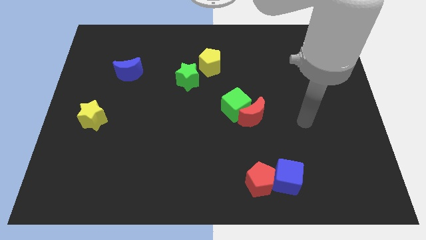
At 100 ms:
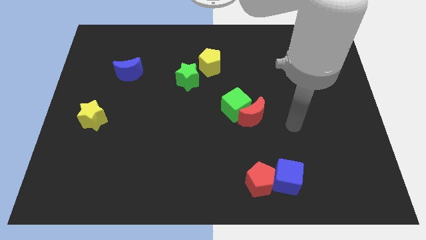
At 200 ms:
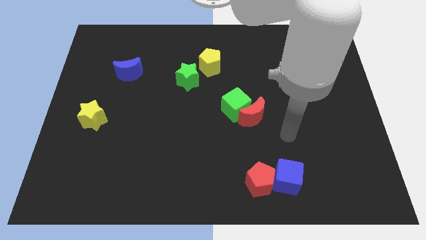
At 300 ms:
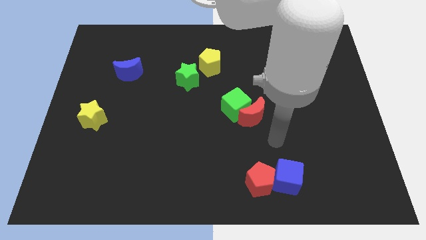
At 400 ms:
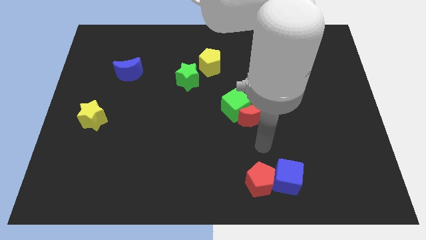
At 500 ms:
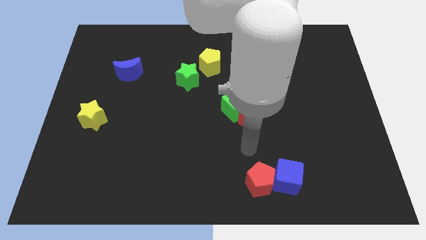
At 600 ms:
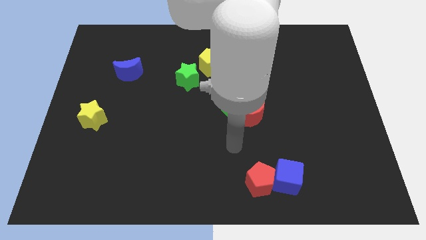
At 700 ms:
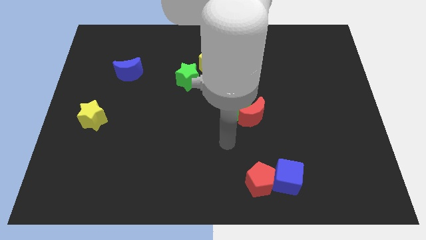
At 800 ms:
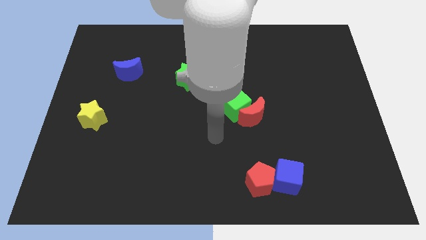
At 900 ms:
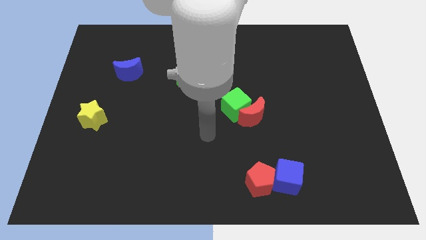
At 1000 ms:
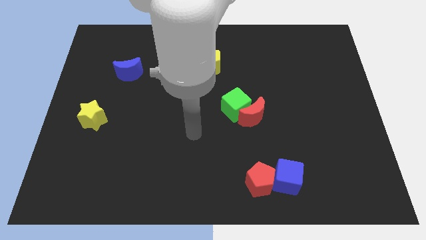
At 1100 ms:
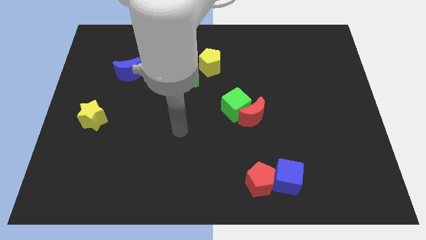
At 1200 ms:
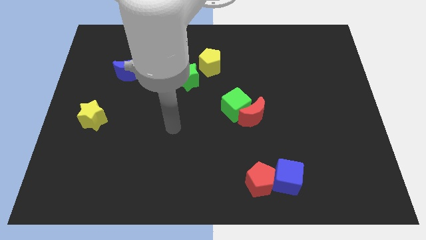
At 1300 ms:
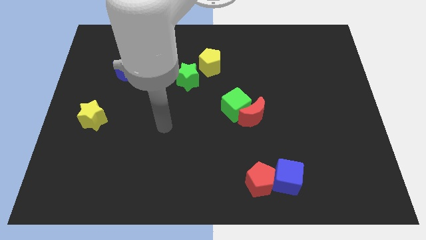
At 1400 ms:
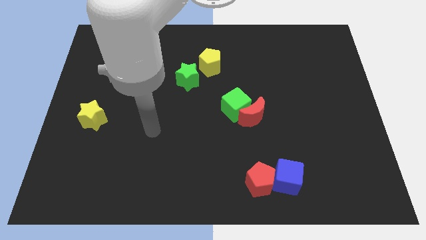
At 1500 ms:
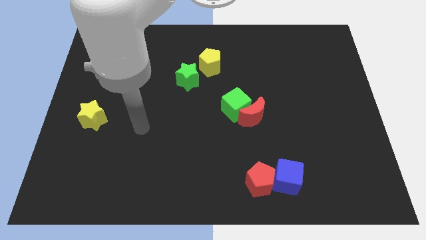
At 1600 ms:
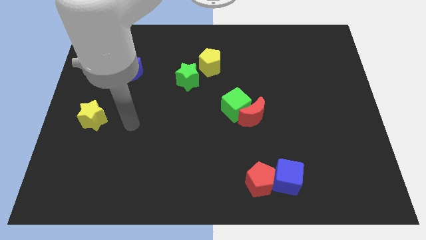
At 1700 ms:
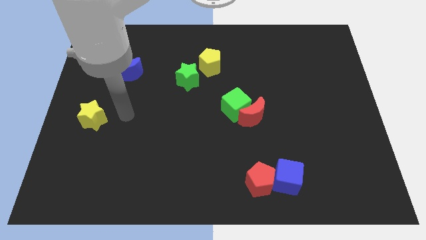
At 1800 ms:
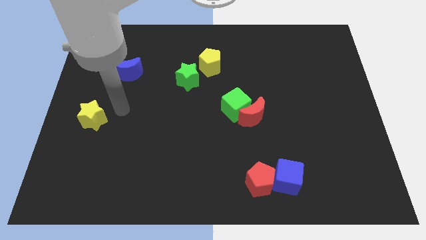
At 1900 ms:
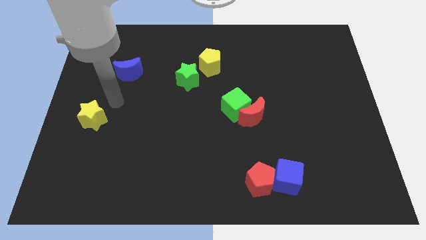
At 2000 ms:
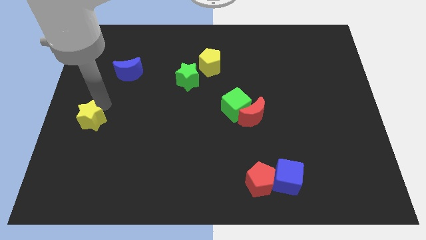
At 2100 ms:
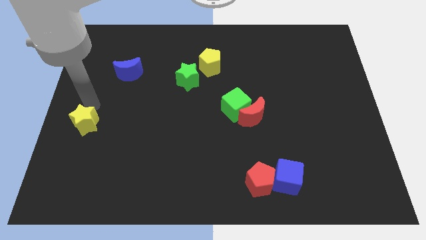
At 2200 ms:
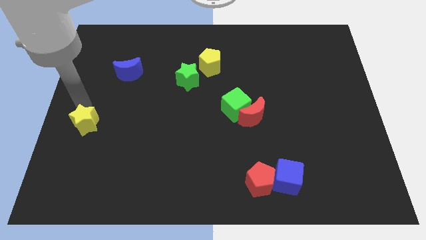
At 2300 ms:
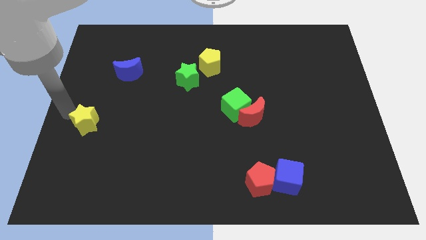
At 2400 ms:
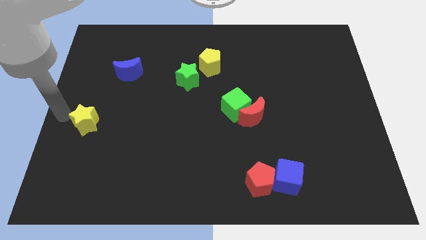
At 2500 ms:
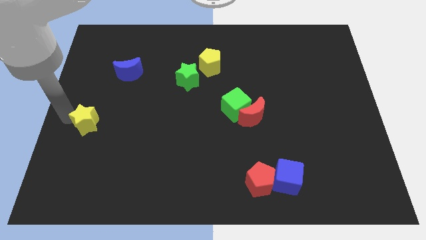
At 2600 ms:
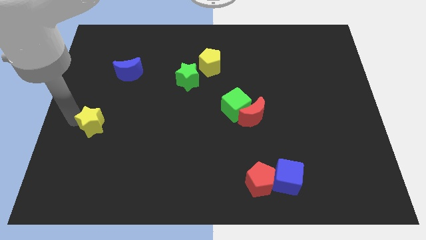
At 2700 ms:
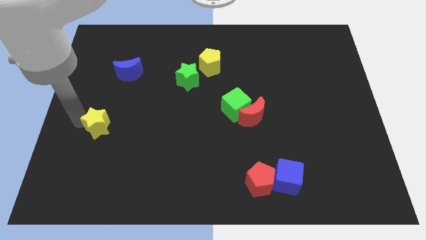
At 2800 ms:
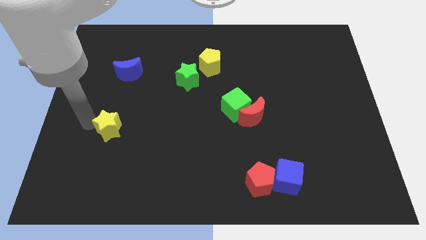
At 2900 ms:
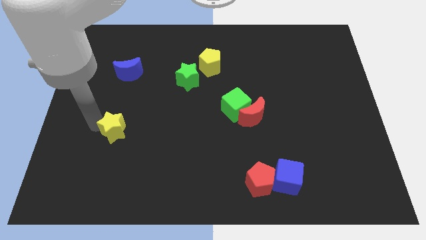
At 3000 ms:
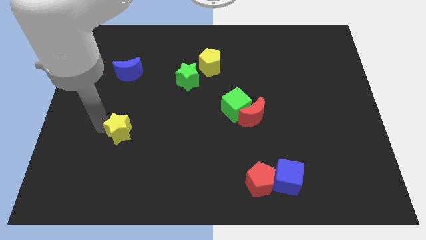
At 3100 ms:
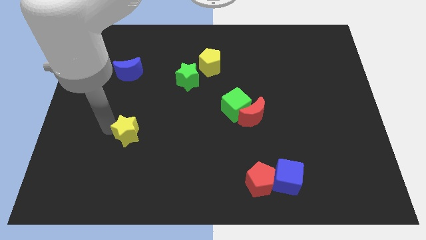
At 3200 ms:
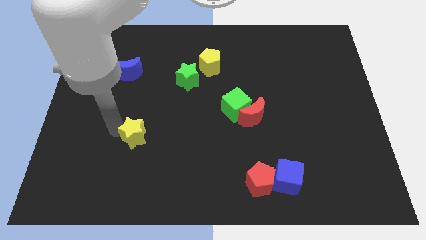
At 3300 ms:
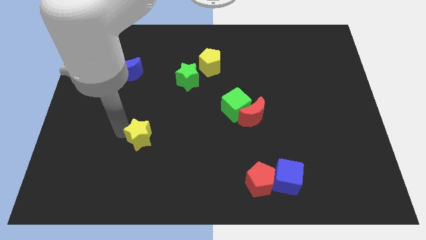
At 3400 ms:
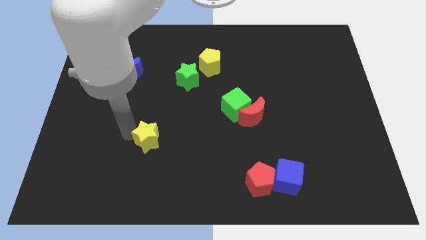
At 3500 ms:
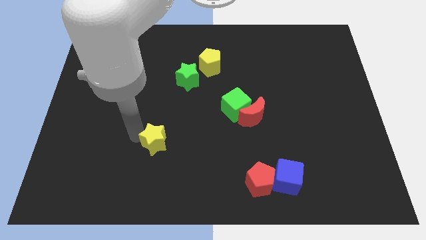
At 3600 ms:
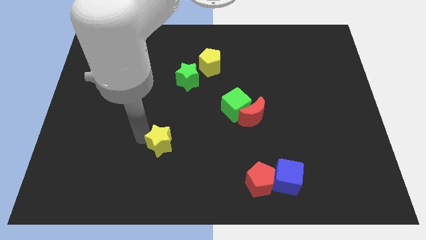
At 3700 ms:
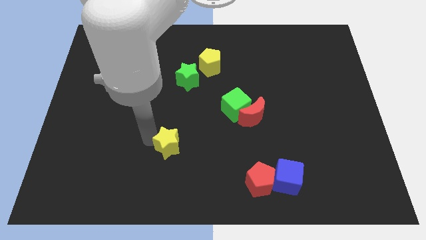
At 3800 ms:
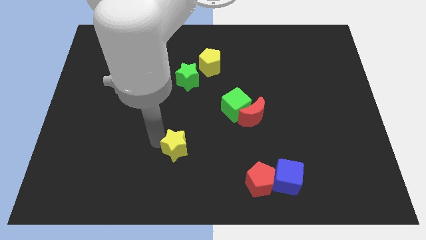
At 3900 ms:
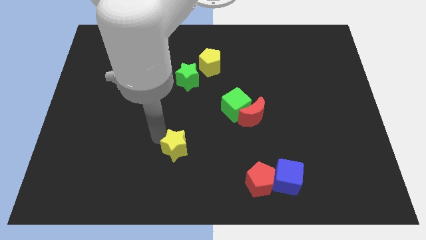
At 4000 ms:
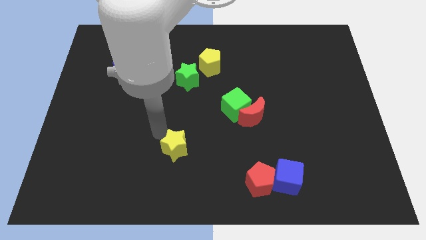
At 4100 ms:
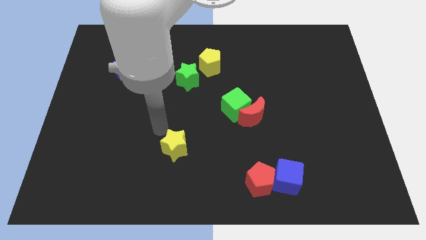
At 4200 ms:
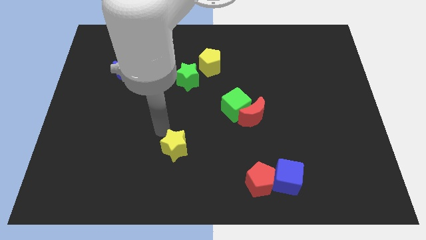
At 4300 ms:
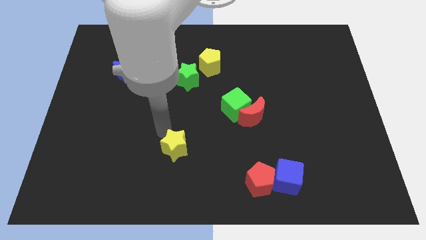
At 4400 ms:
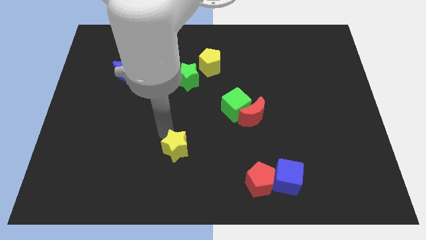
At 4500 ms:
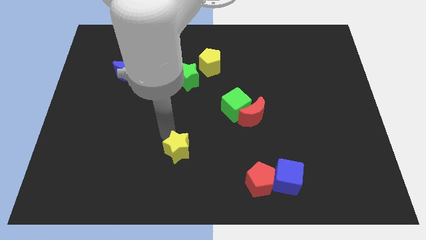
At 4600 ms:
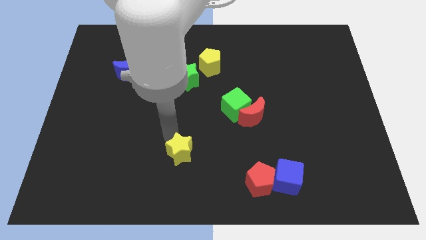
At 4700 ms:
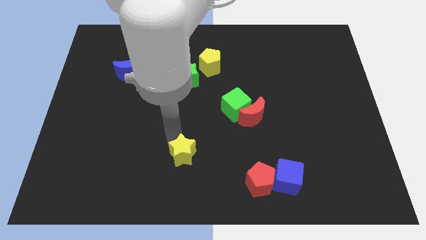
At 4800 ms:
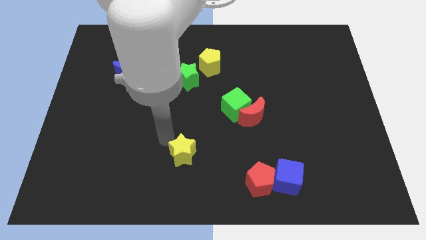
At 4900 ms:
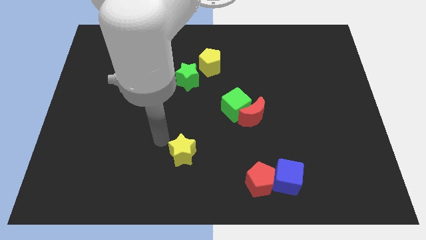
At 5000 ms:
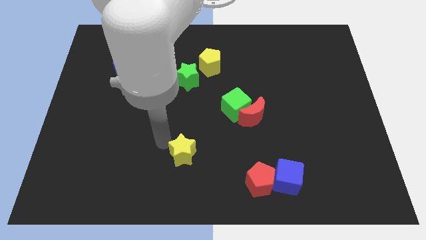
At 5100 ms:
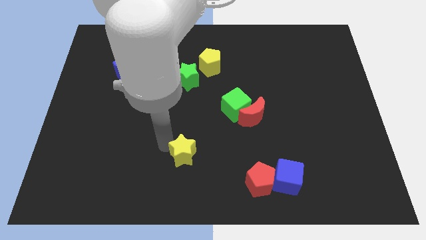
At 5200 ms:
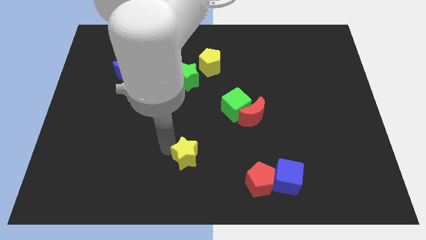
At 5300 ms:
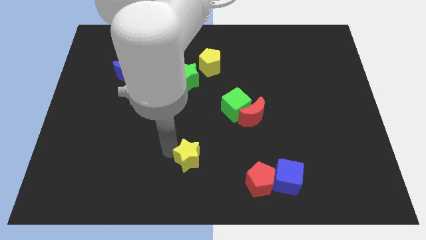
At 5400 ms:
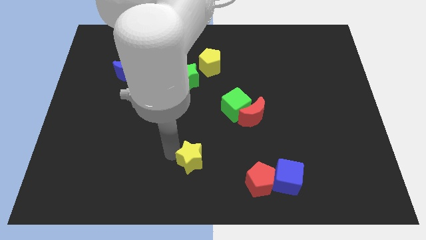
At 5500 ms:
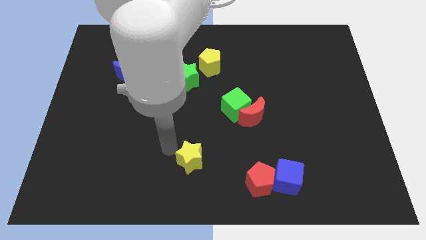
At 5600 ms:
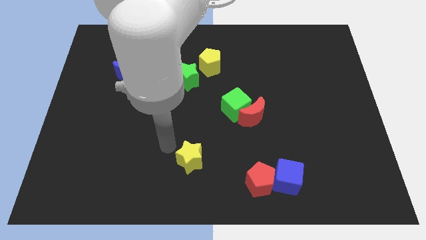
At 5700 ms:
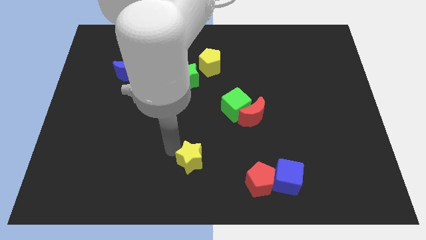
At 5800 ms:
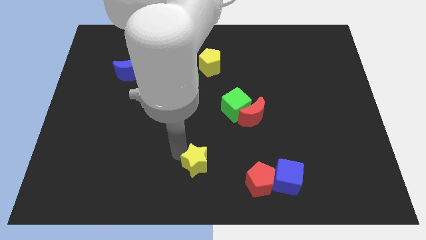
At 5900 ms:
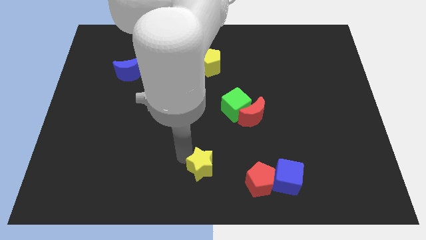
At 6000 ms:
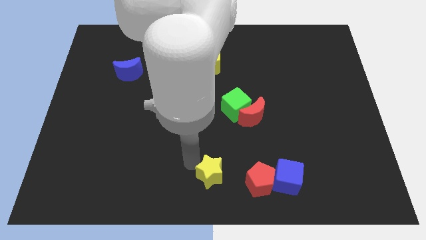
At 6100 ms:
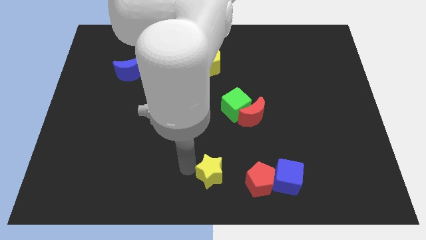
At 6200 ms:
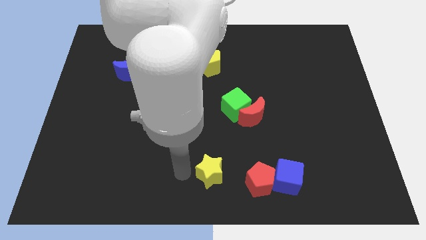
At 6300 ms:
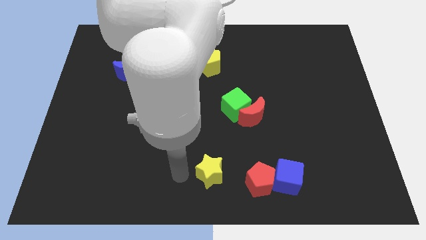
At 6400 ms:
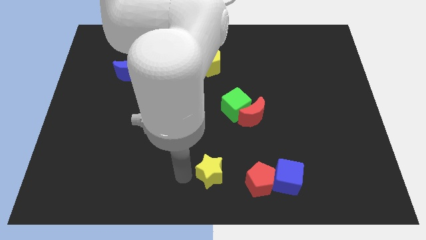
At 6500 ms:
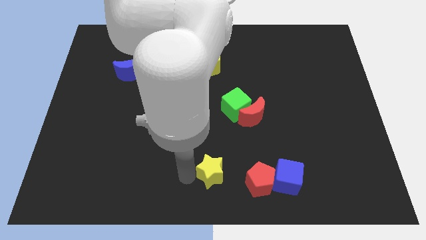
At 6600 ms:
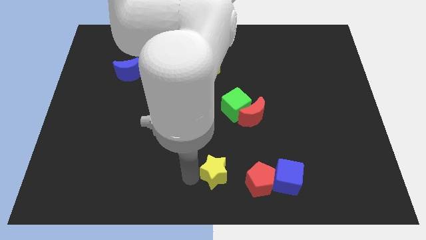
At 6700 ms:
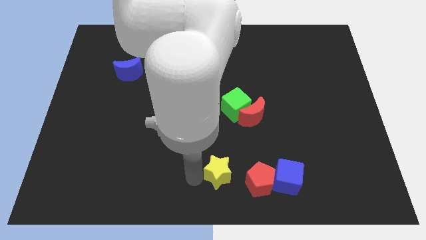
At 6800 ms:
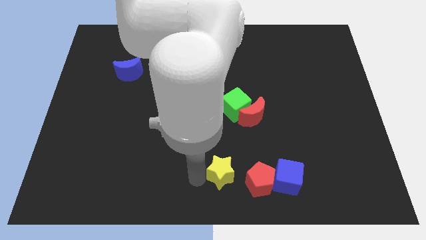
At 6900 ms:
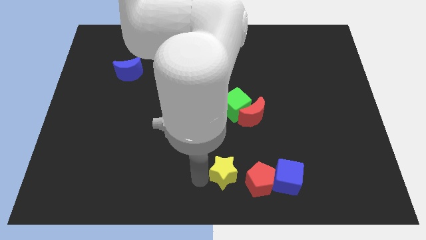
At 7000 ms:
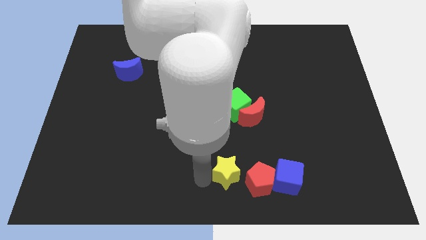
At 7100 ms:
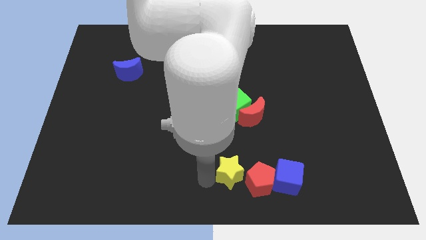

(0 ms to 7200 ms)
move the yellow star next to the red pentagon

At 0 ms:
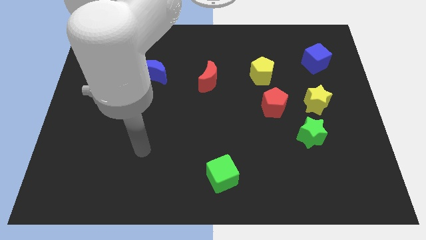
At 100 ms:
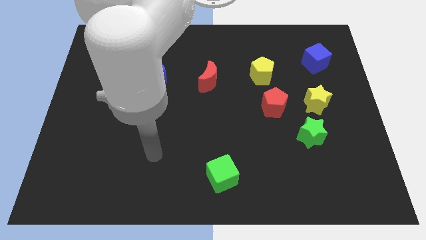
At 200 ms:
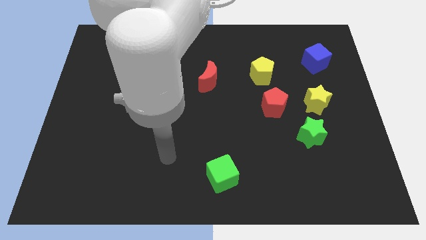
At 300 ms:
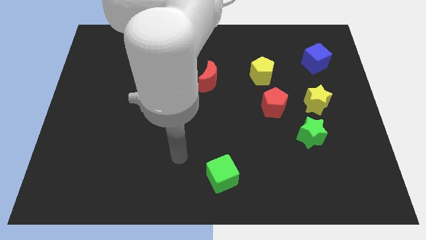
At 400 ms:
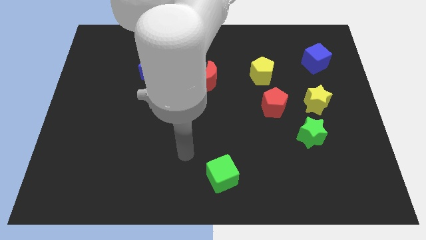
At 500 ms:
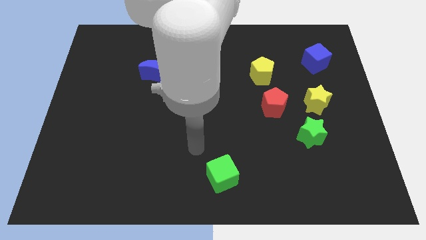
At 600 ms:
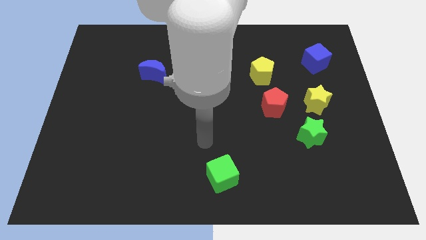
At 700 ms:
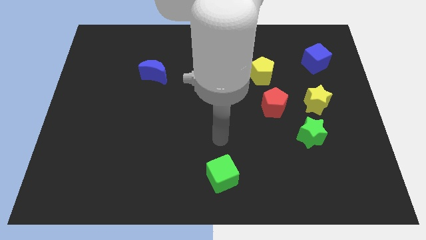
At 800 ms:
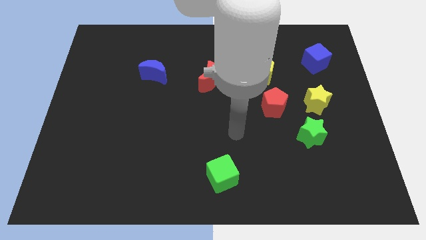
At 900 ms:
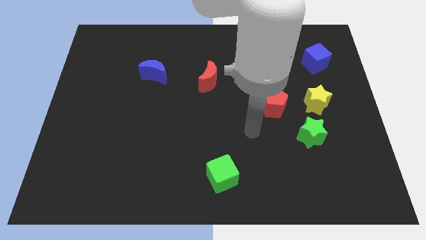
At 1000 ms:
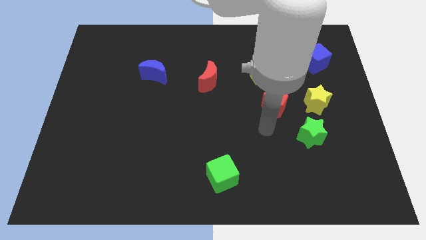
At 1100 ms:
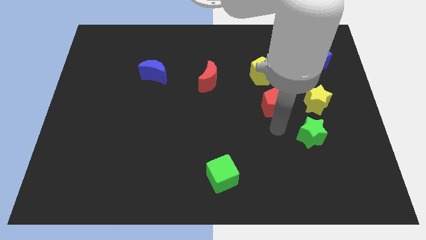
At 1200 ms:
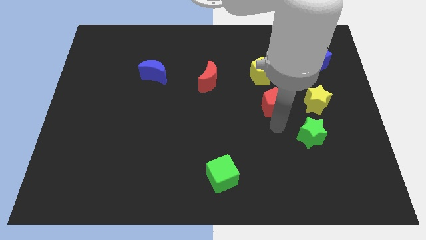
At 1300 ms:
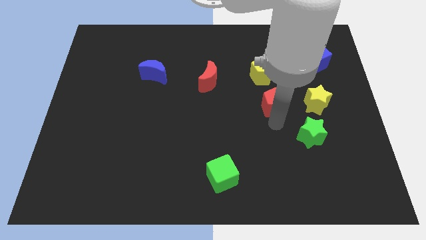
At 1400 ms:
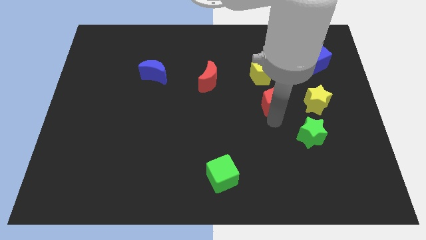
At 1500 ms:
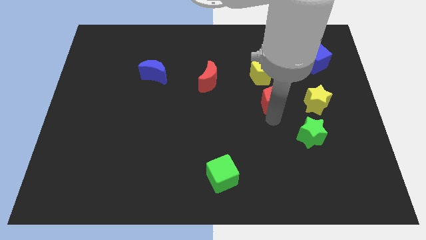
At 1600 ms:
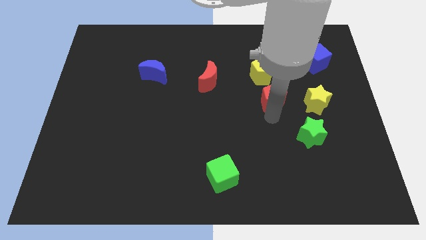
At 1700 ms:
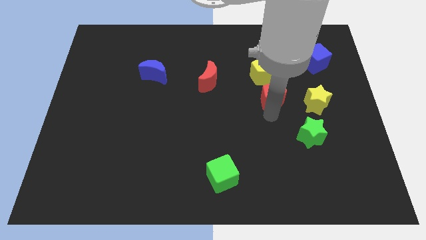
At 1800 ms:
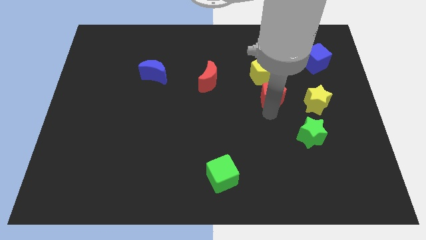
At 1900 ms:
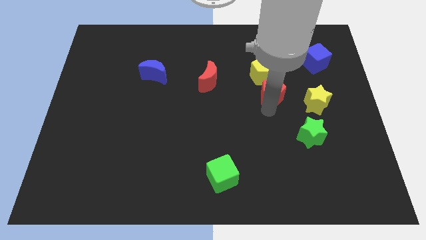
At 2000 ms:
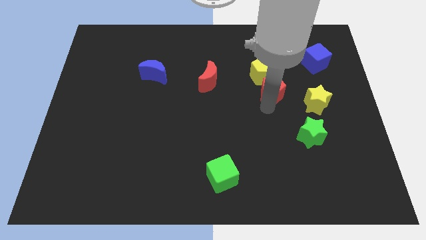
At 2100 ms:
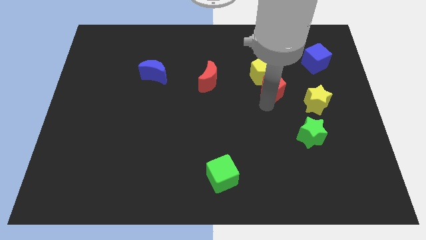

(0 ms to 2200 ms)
move the red pentagon next to the yellow pentagon
